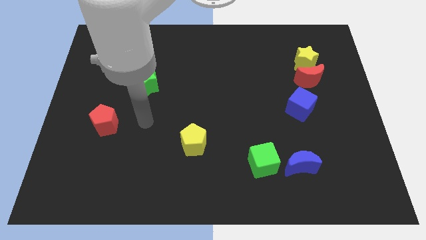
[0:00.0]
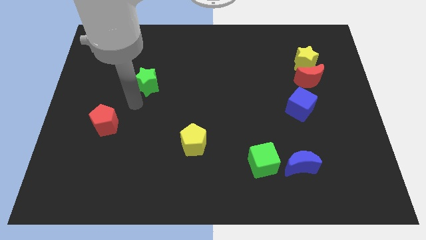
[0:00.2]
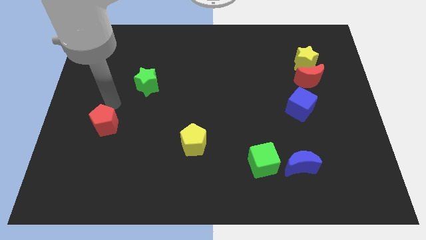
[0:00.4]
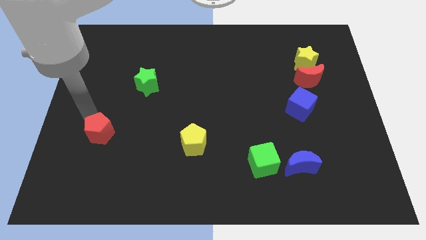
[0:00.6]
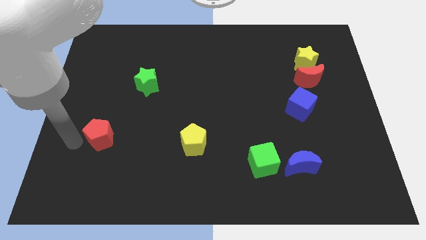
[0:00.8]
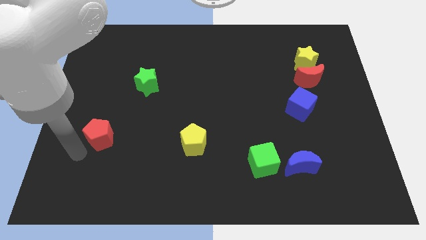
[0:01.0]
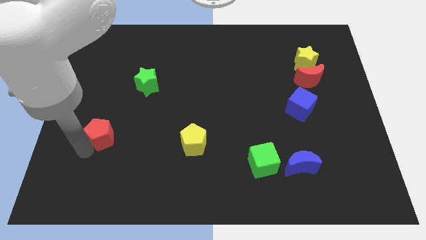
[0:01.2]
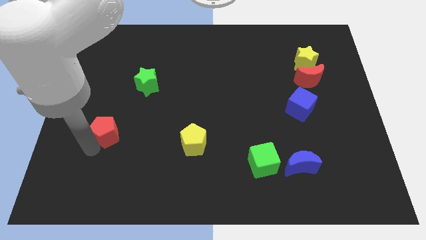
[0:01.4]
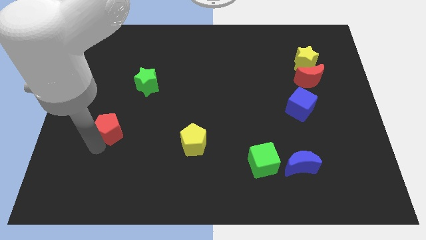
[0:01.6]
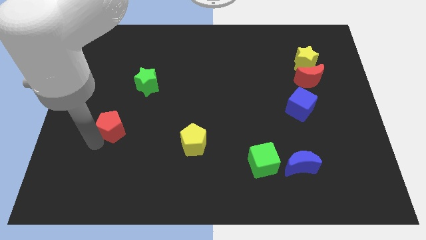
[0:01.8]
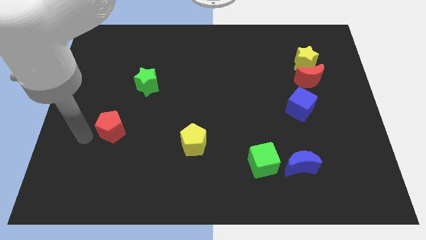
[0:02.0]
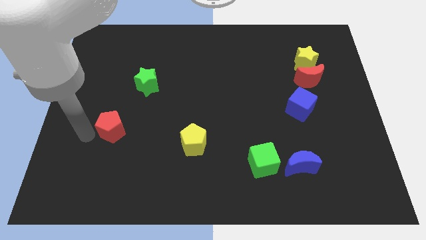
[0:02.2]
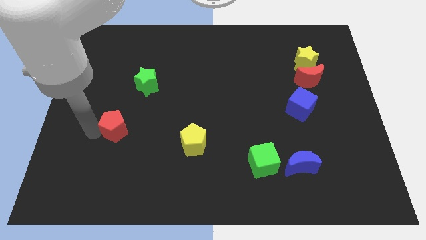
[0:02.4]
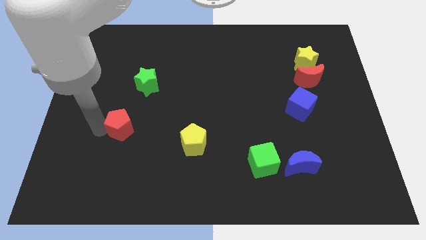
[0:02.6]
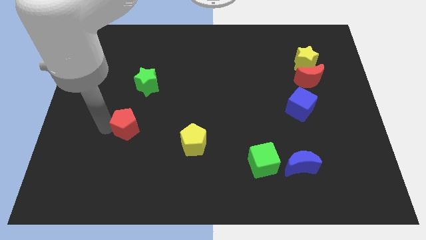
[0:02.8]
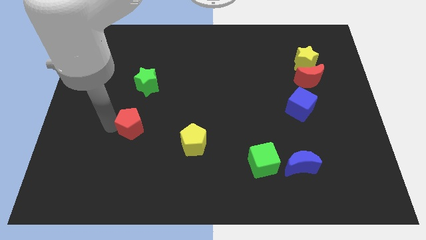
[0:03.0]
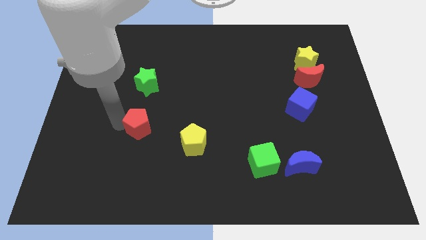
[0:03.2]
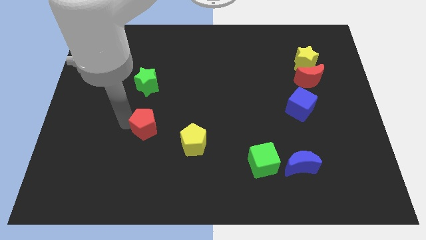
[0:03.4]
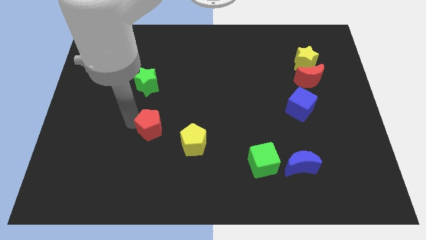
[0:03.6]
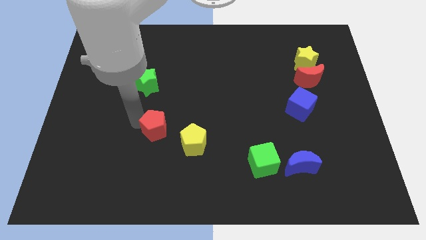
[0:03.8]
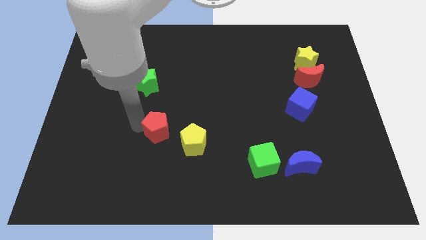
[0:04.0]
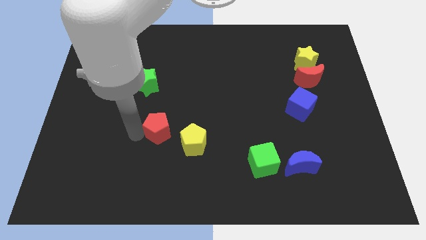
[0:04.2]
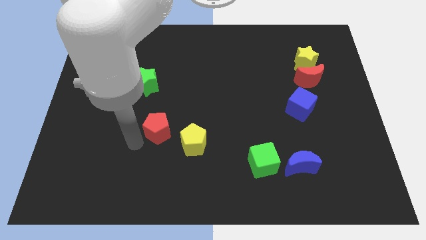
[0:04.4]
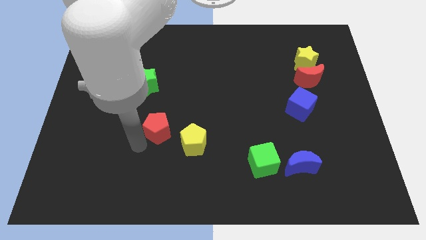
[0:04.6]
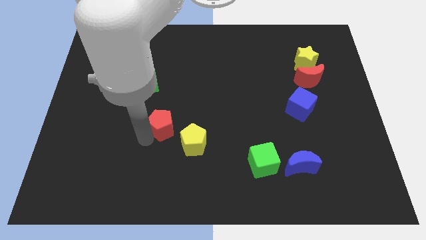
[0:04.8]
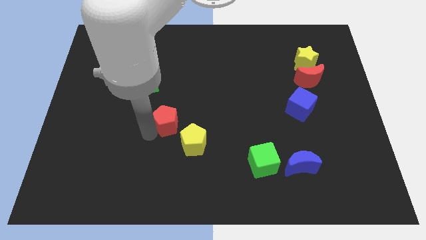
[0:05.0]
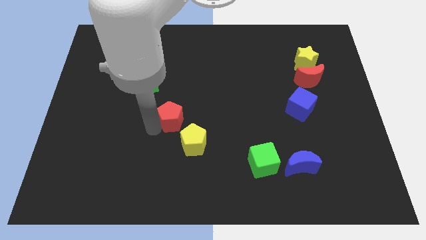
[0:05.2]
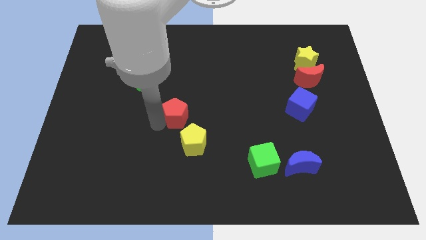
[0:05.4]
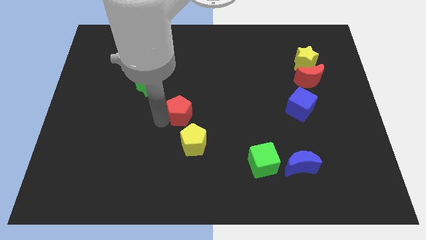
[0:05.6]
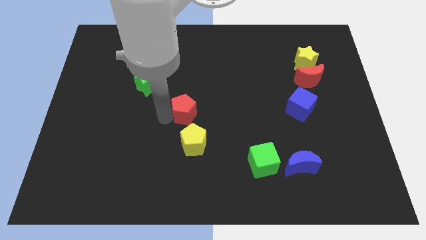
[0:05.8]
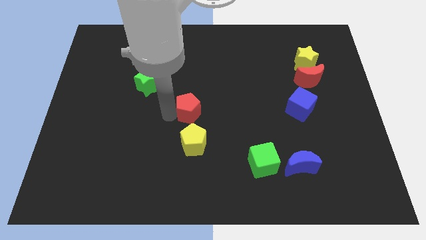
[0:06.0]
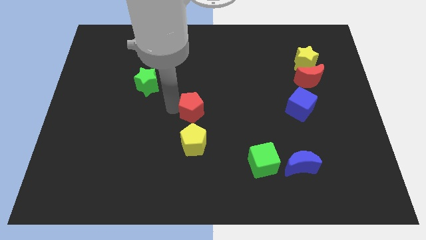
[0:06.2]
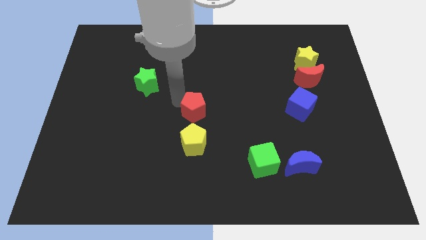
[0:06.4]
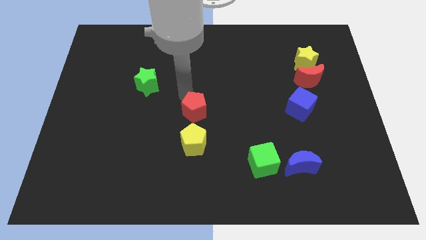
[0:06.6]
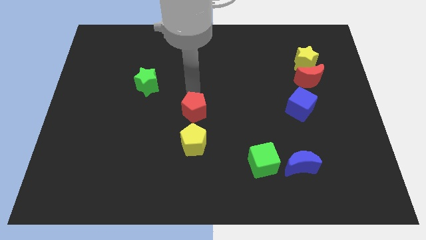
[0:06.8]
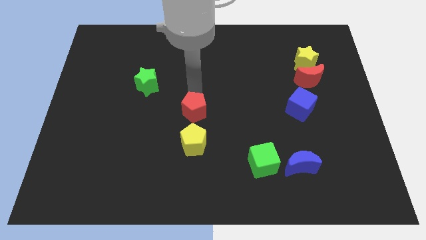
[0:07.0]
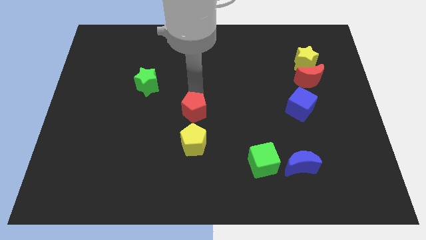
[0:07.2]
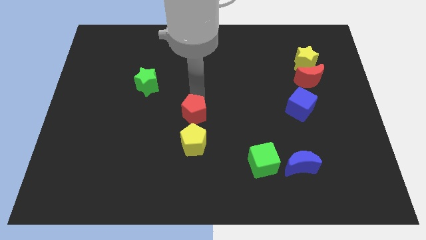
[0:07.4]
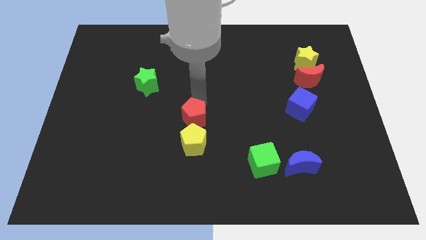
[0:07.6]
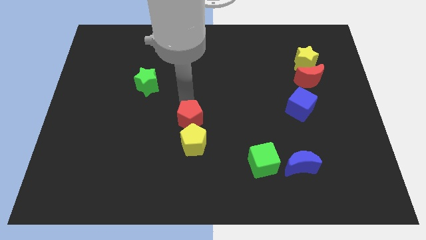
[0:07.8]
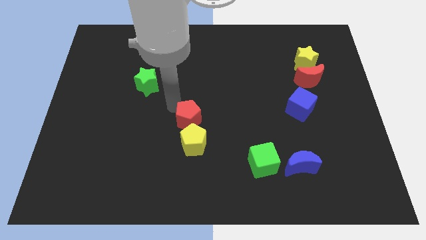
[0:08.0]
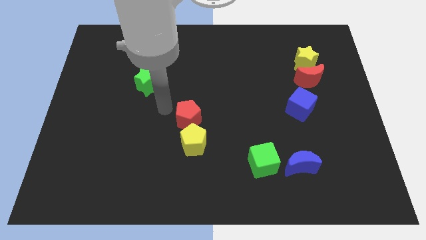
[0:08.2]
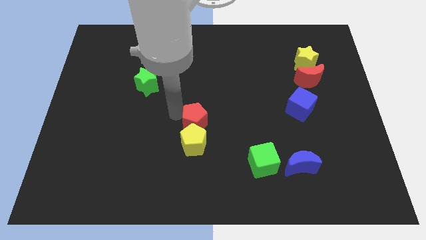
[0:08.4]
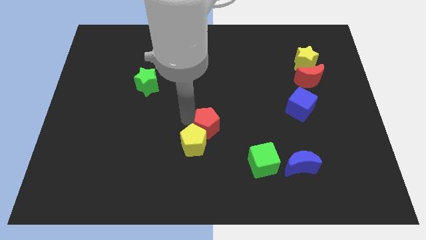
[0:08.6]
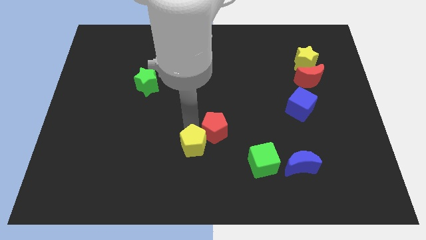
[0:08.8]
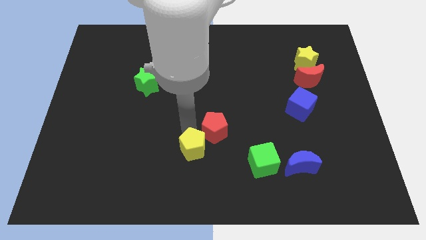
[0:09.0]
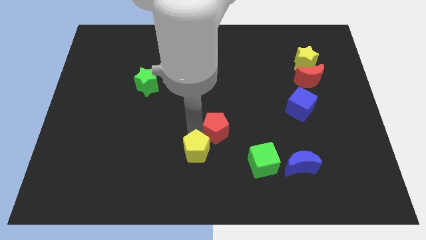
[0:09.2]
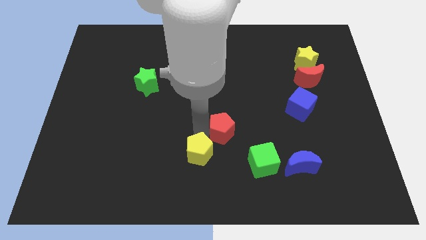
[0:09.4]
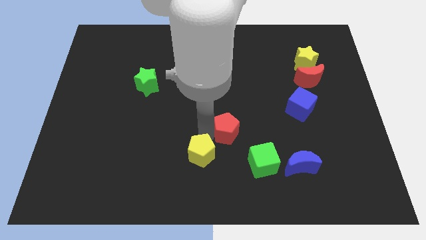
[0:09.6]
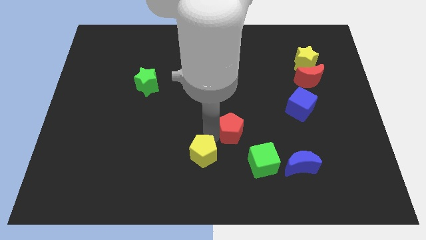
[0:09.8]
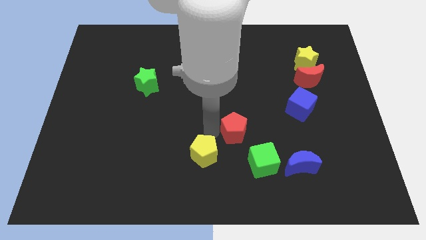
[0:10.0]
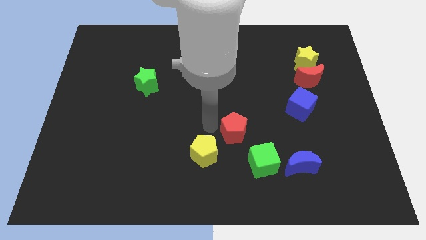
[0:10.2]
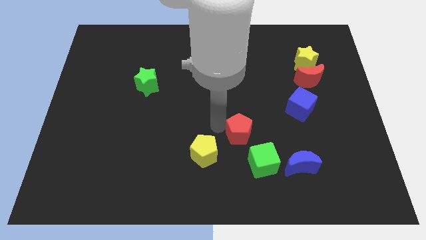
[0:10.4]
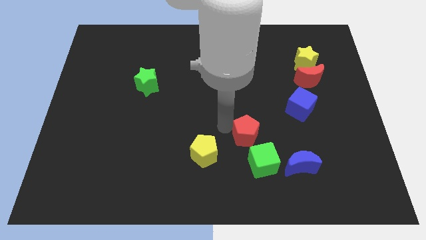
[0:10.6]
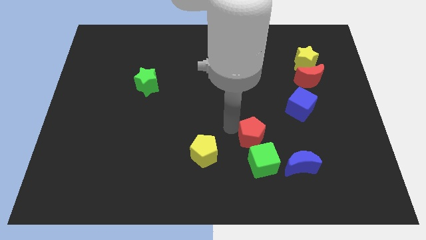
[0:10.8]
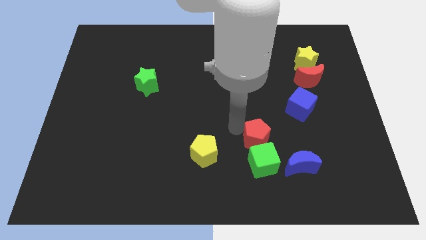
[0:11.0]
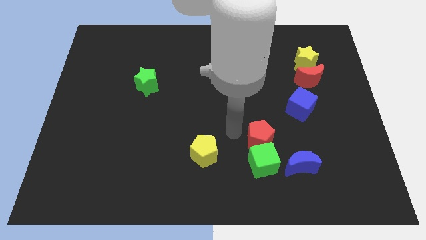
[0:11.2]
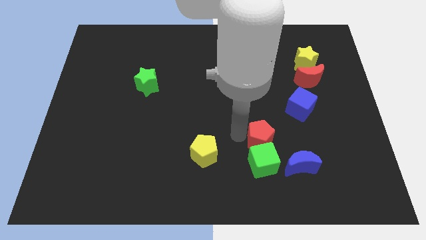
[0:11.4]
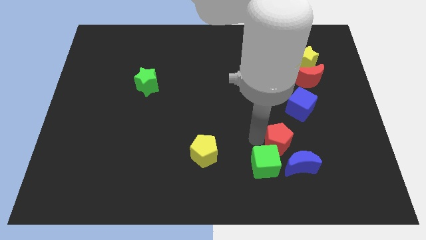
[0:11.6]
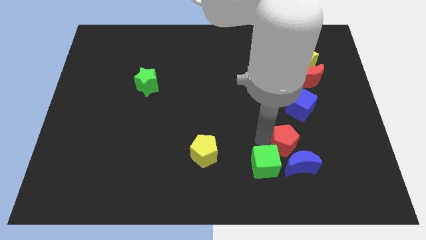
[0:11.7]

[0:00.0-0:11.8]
slide the red pentagon next to the blue moon
